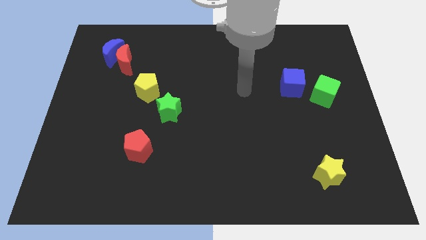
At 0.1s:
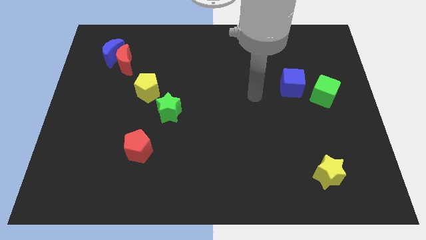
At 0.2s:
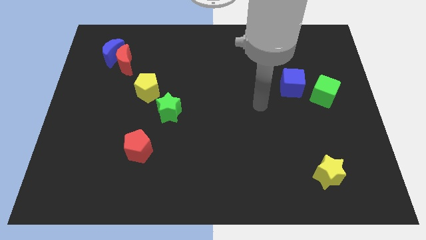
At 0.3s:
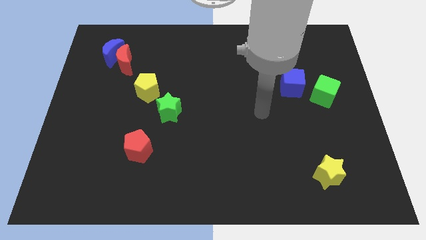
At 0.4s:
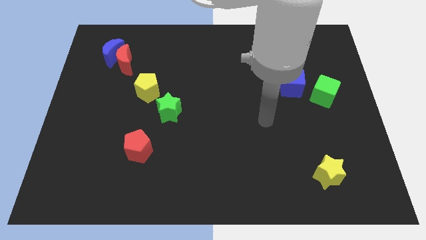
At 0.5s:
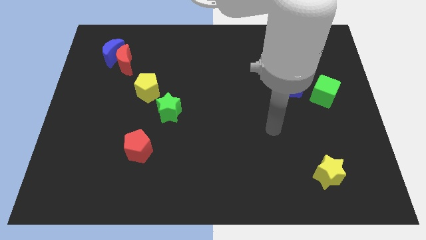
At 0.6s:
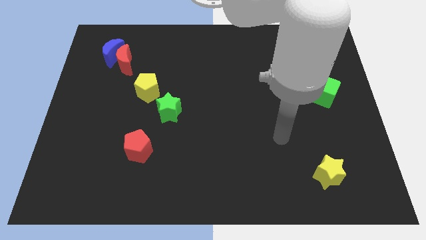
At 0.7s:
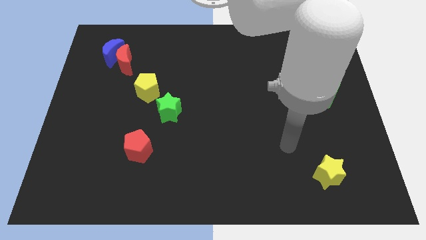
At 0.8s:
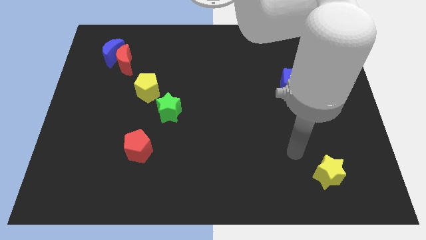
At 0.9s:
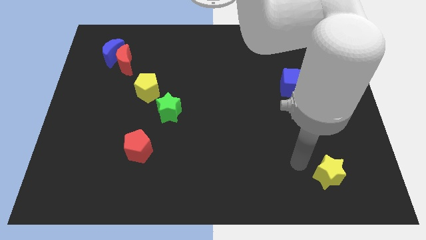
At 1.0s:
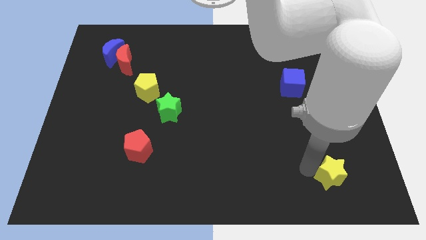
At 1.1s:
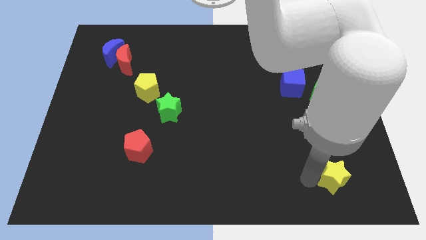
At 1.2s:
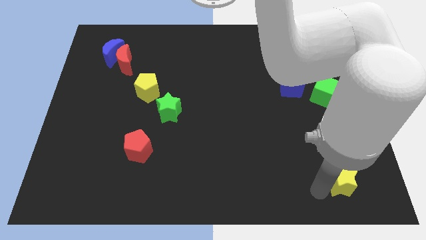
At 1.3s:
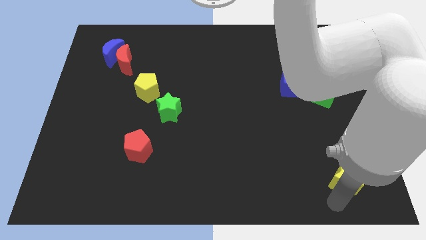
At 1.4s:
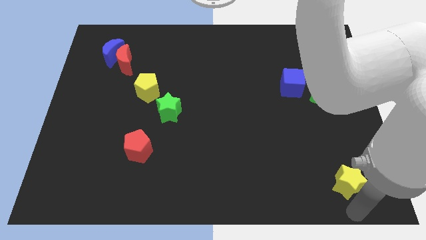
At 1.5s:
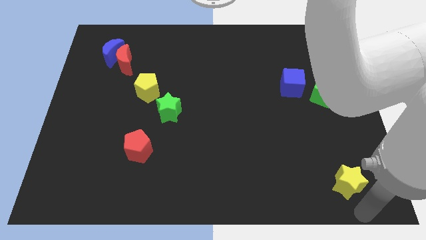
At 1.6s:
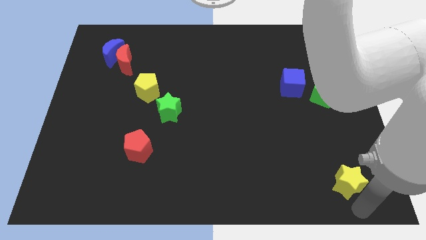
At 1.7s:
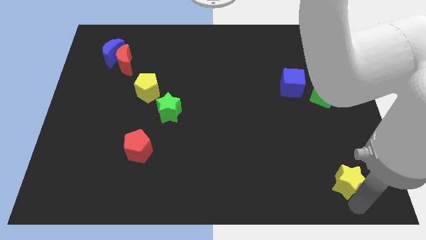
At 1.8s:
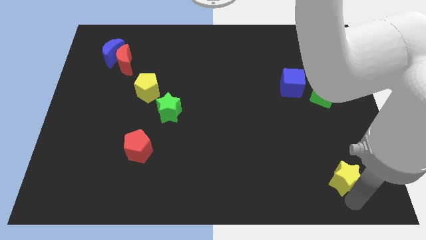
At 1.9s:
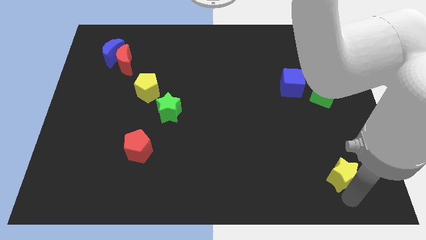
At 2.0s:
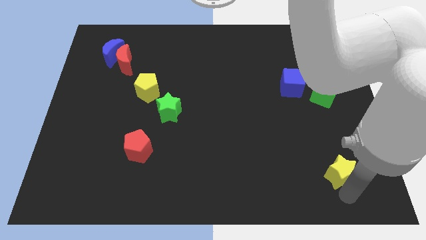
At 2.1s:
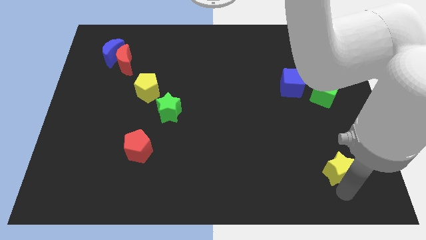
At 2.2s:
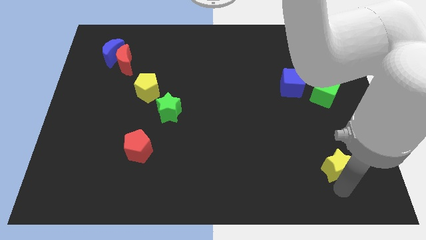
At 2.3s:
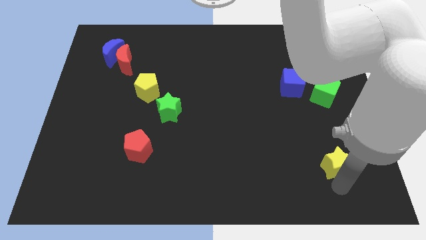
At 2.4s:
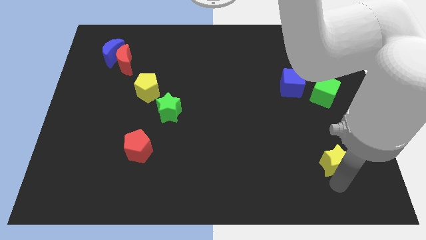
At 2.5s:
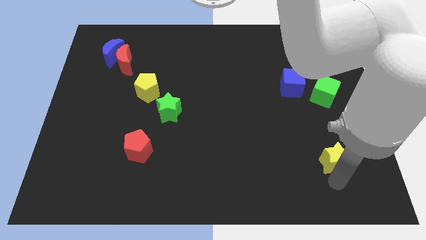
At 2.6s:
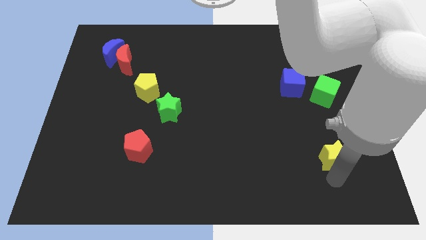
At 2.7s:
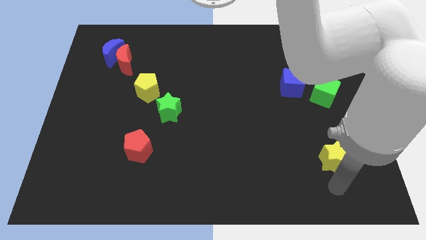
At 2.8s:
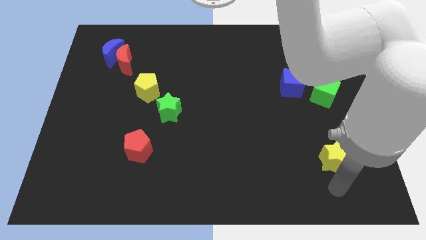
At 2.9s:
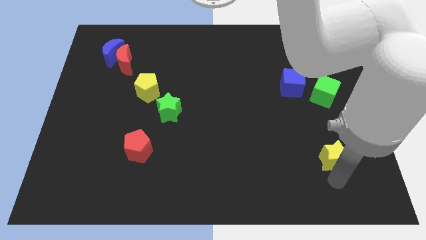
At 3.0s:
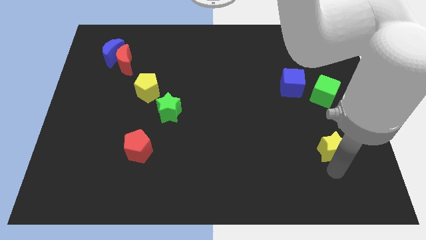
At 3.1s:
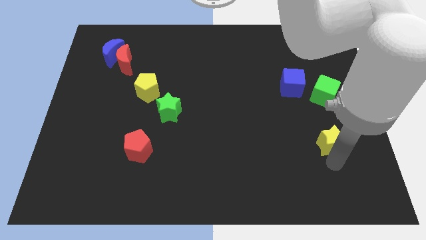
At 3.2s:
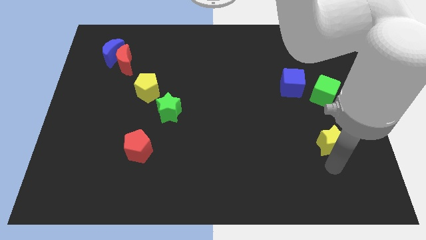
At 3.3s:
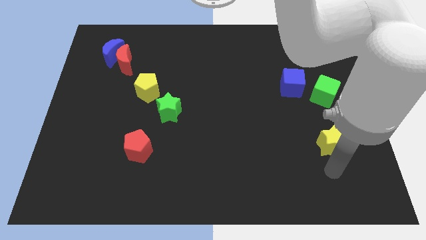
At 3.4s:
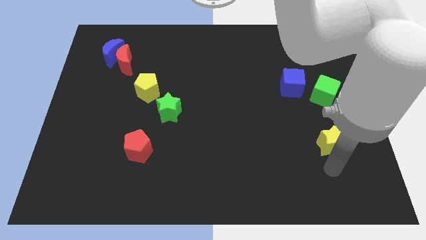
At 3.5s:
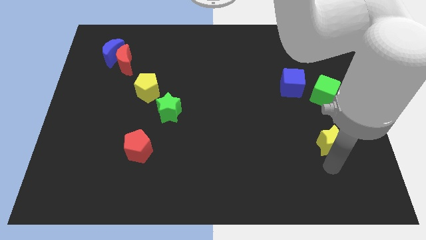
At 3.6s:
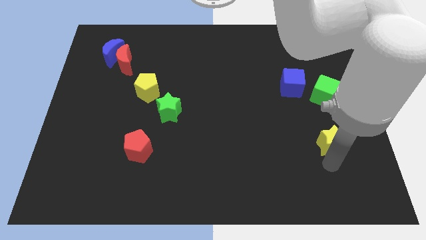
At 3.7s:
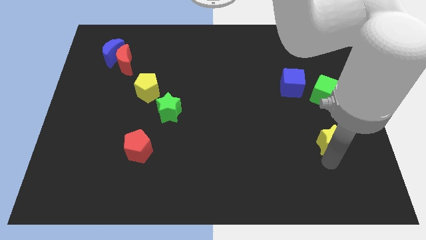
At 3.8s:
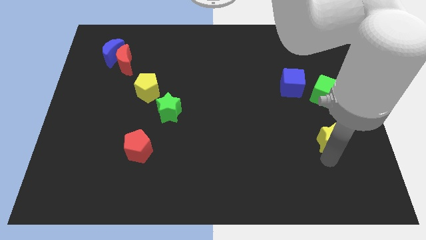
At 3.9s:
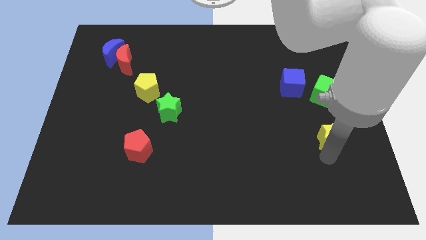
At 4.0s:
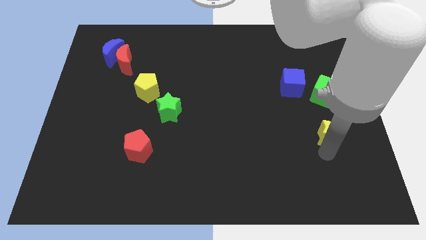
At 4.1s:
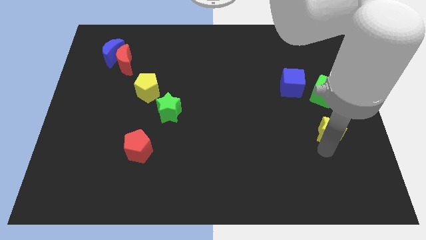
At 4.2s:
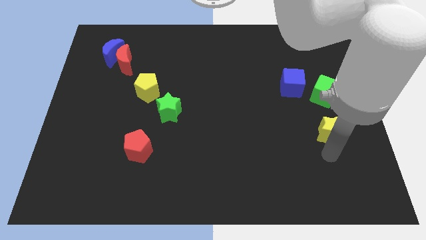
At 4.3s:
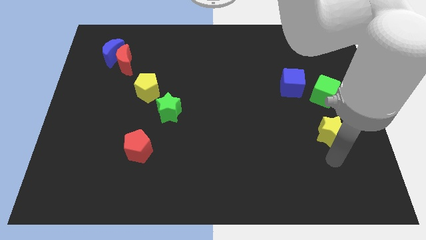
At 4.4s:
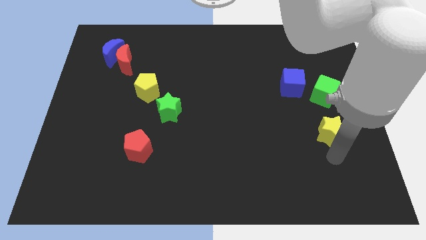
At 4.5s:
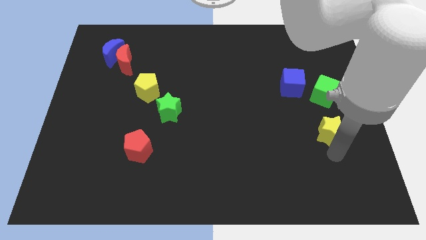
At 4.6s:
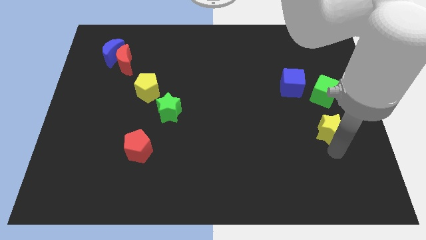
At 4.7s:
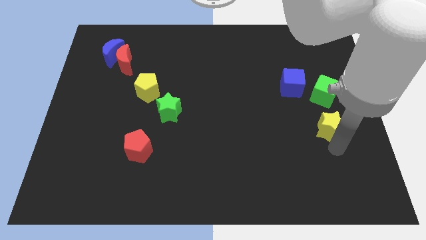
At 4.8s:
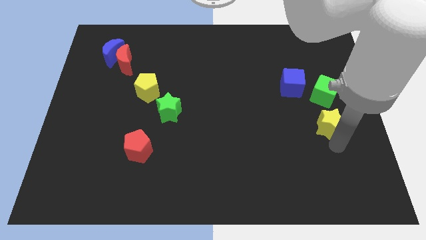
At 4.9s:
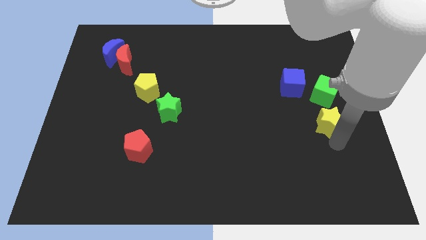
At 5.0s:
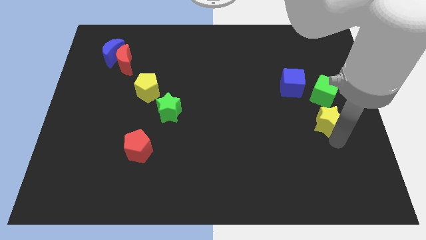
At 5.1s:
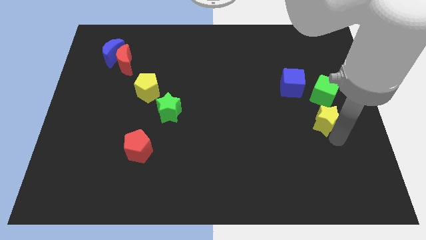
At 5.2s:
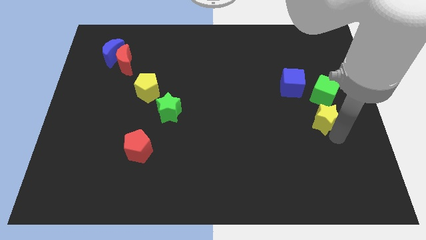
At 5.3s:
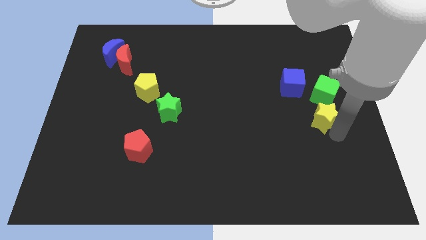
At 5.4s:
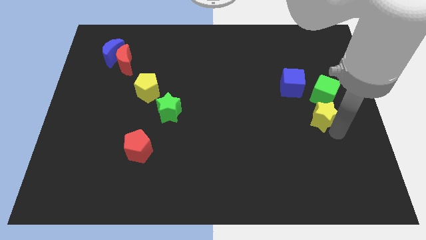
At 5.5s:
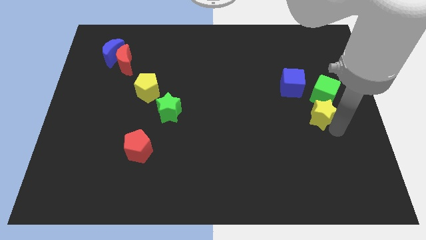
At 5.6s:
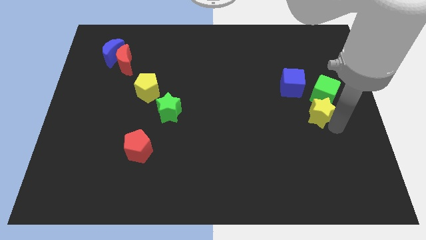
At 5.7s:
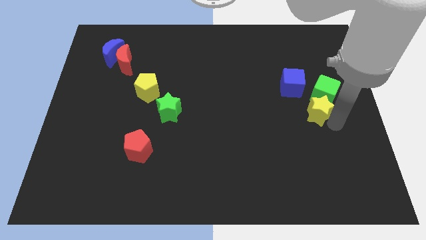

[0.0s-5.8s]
slide the yellow star to the green cube
